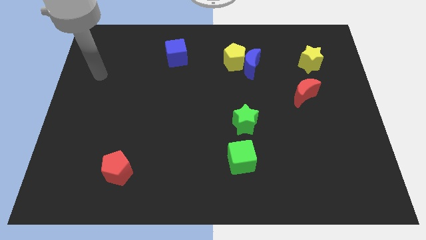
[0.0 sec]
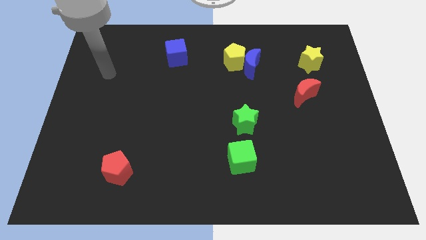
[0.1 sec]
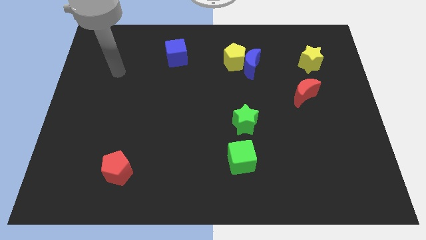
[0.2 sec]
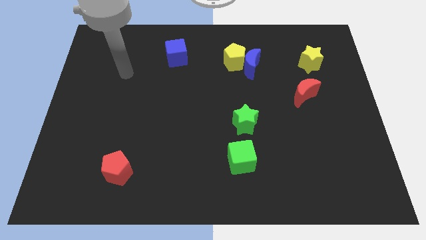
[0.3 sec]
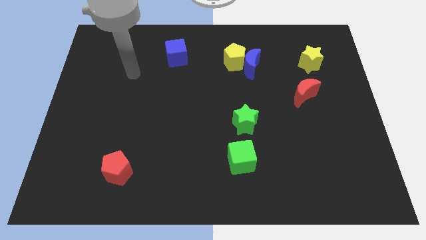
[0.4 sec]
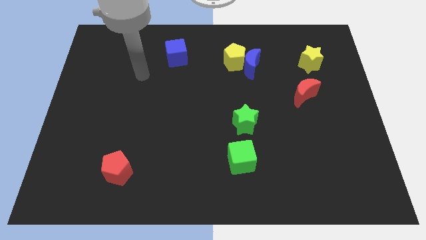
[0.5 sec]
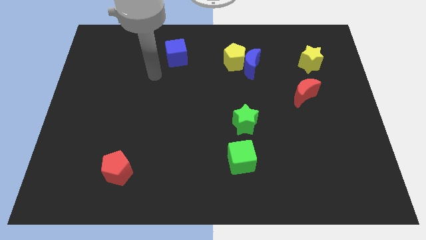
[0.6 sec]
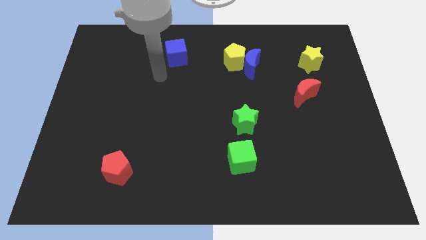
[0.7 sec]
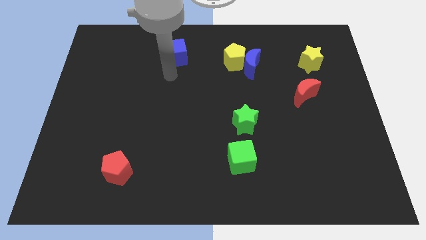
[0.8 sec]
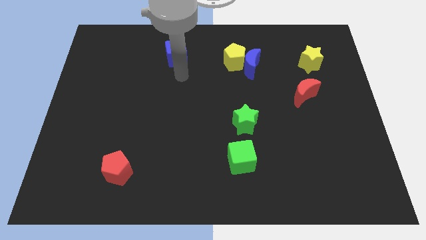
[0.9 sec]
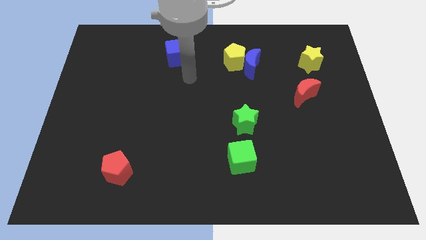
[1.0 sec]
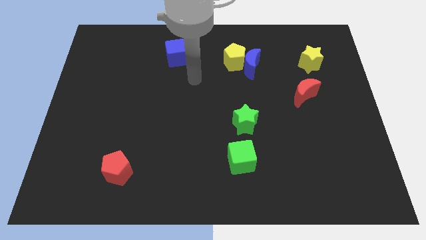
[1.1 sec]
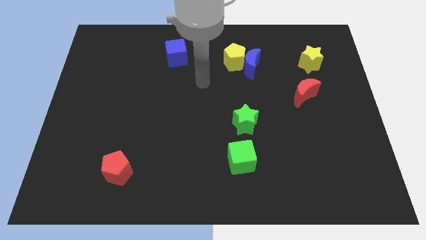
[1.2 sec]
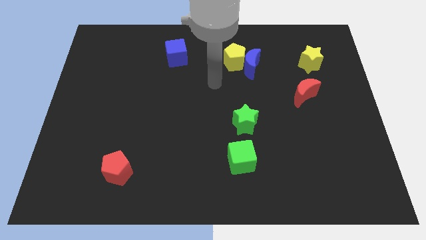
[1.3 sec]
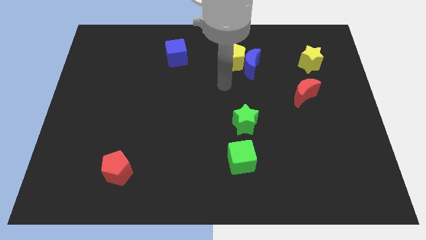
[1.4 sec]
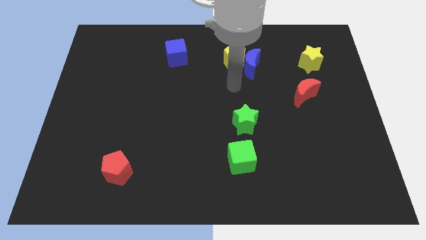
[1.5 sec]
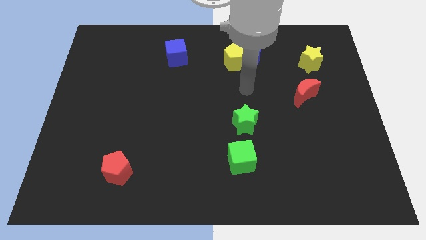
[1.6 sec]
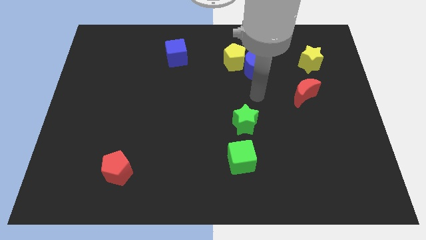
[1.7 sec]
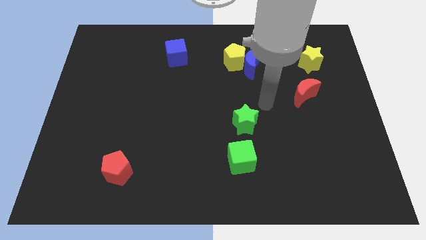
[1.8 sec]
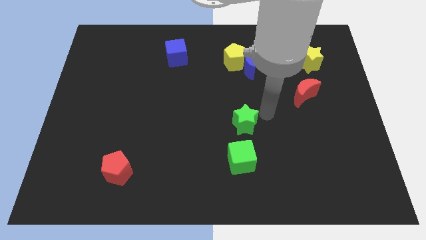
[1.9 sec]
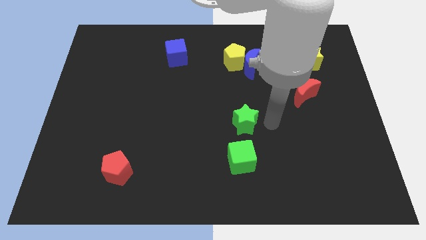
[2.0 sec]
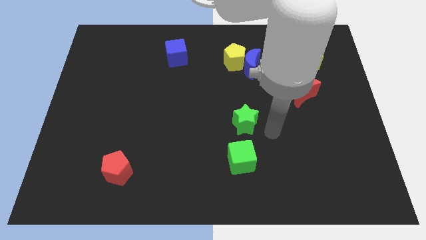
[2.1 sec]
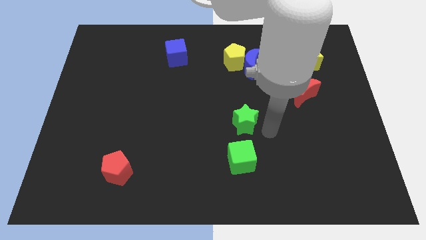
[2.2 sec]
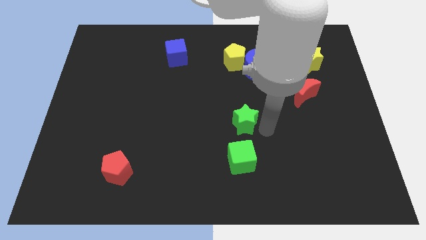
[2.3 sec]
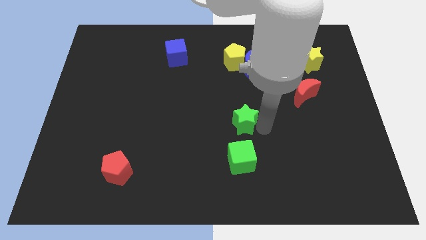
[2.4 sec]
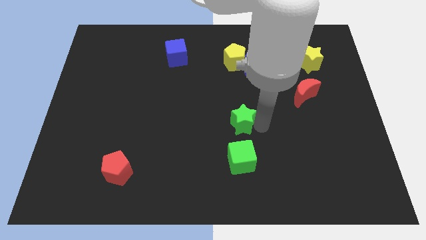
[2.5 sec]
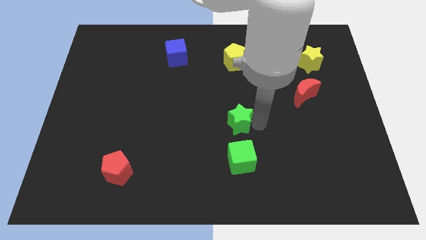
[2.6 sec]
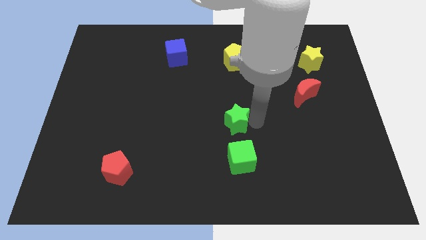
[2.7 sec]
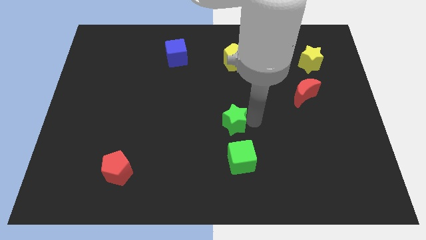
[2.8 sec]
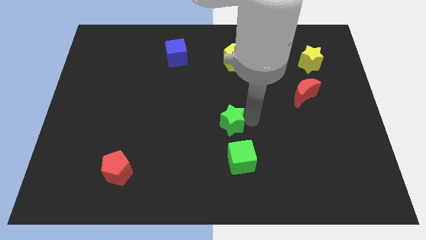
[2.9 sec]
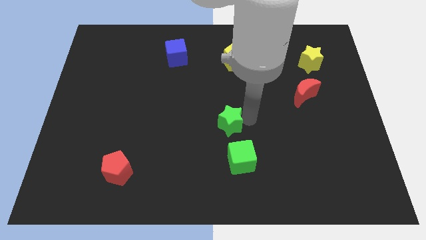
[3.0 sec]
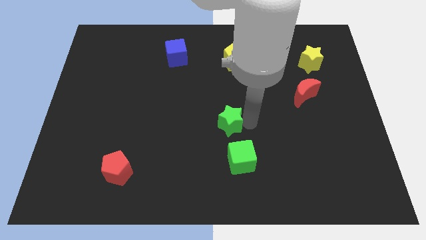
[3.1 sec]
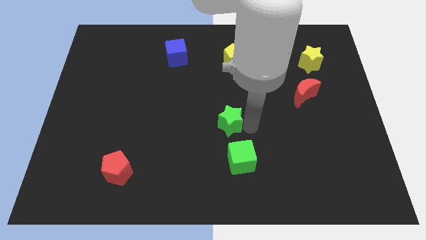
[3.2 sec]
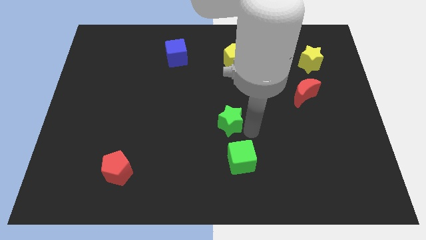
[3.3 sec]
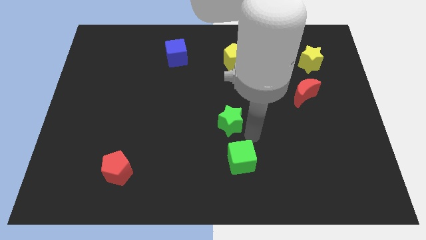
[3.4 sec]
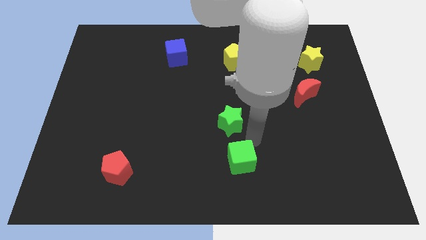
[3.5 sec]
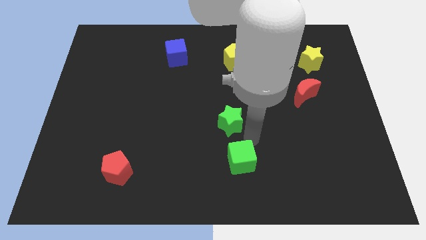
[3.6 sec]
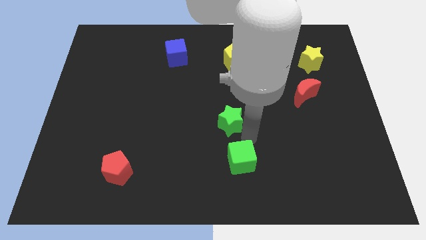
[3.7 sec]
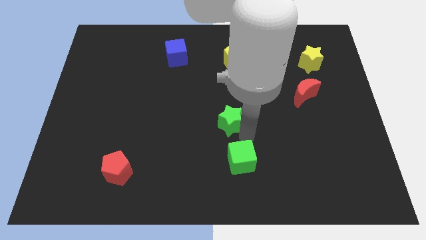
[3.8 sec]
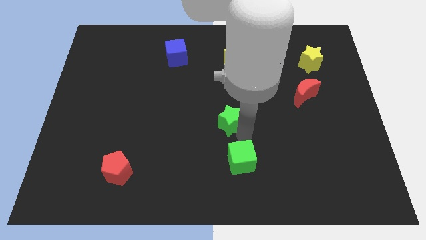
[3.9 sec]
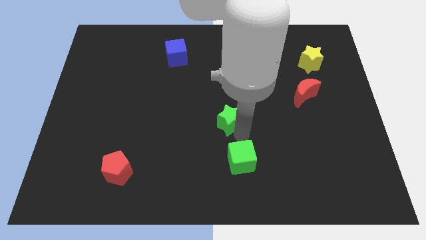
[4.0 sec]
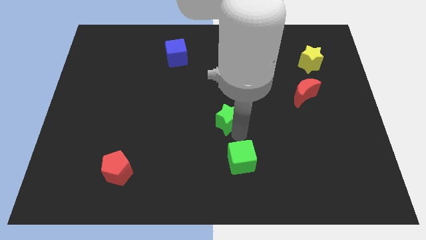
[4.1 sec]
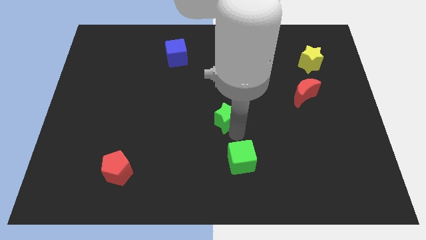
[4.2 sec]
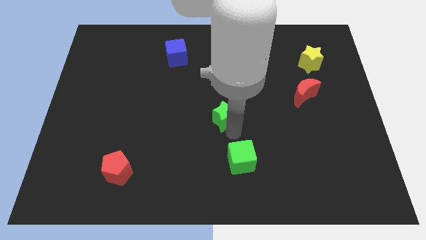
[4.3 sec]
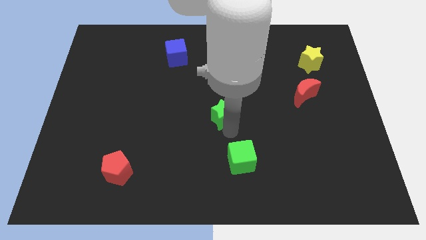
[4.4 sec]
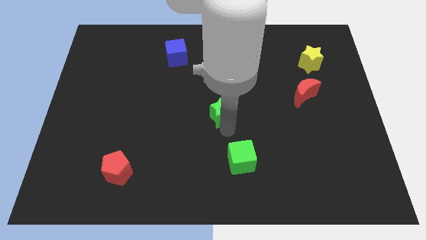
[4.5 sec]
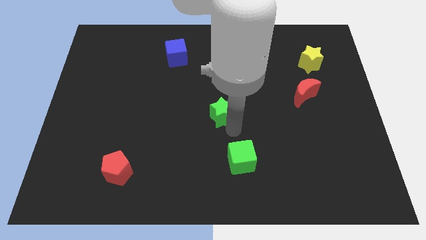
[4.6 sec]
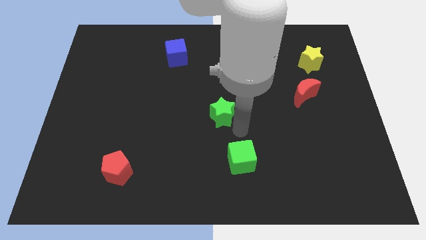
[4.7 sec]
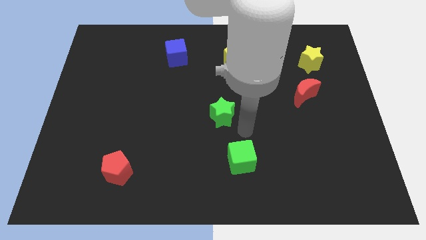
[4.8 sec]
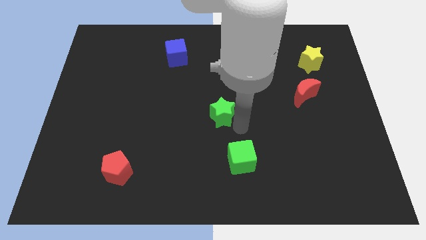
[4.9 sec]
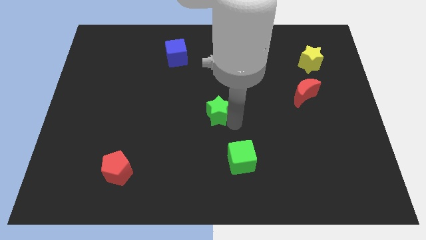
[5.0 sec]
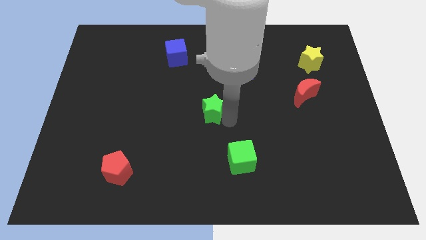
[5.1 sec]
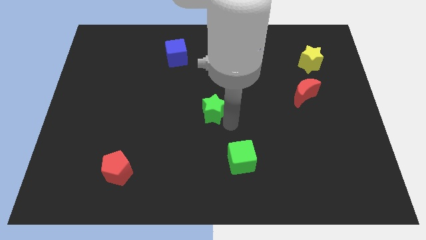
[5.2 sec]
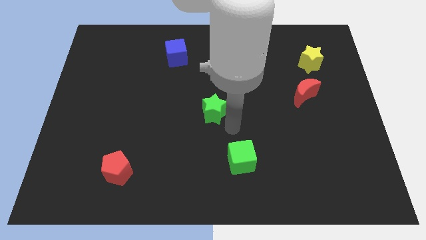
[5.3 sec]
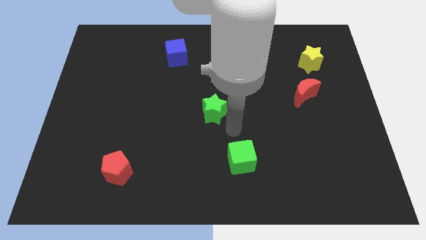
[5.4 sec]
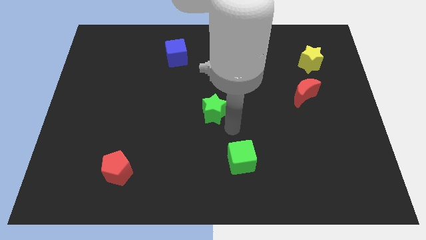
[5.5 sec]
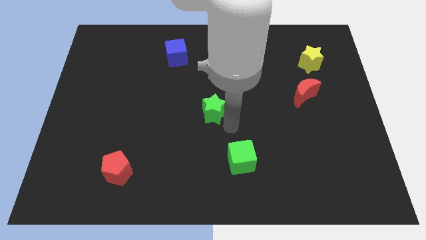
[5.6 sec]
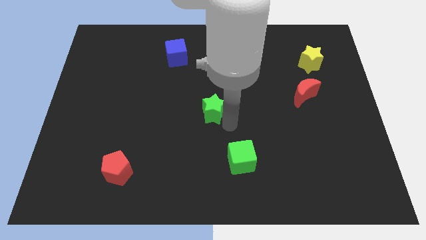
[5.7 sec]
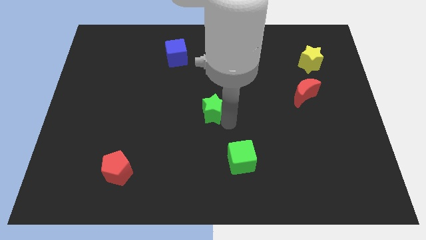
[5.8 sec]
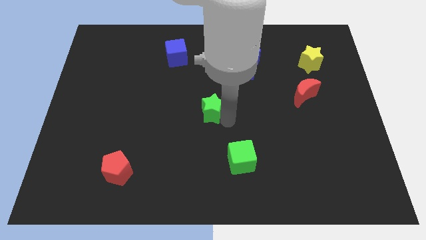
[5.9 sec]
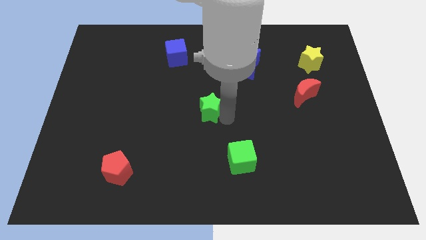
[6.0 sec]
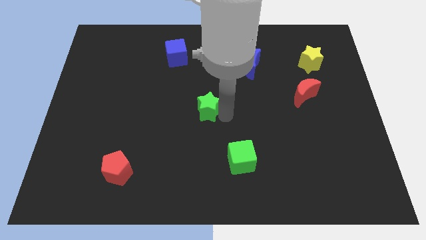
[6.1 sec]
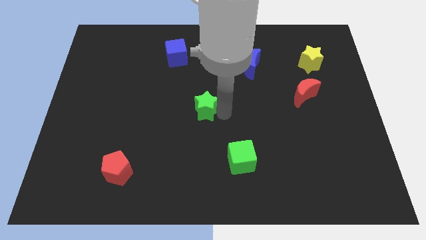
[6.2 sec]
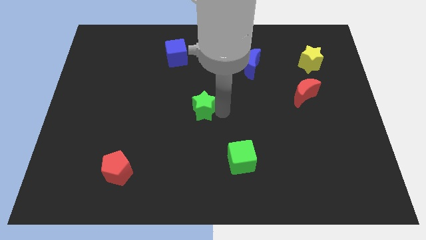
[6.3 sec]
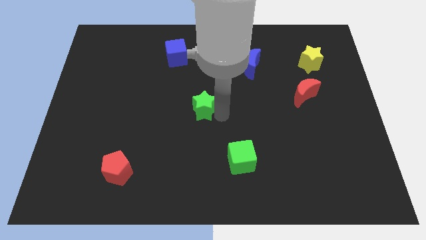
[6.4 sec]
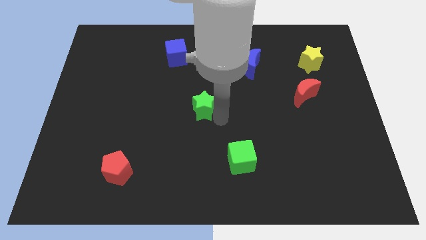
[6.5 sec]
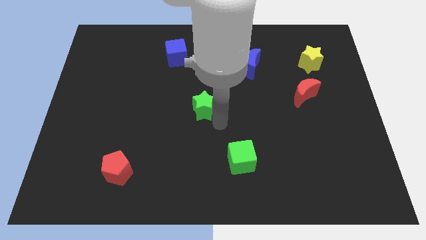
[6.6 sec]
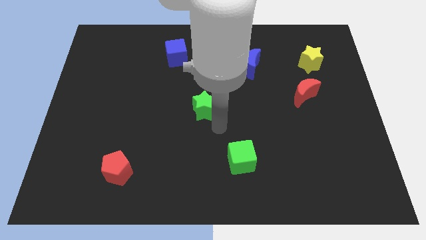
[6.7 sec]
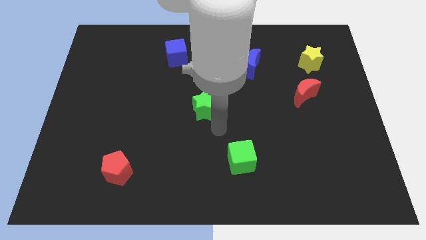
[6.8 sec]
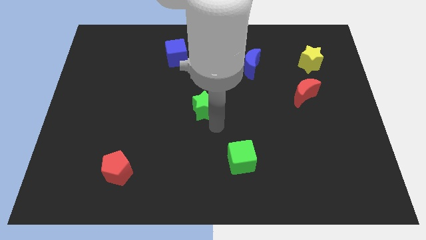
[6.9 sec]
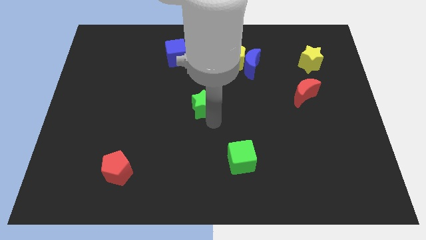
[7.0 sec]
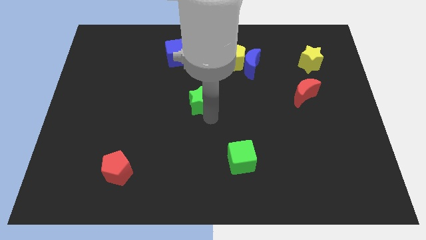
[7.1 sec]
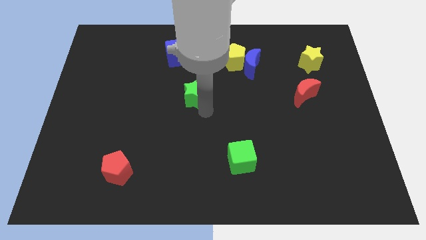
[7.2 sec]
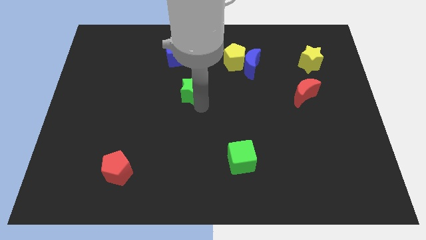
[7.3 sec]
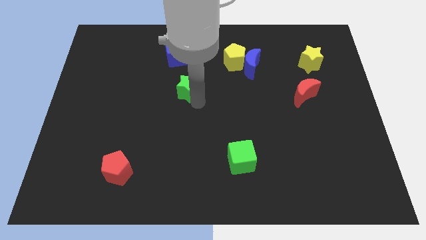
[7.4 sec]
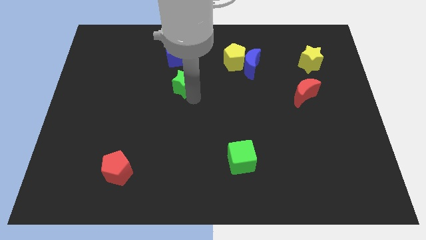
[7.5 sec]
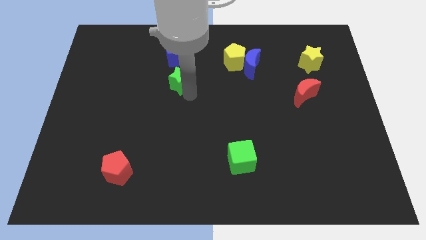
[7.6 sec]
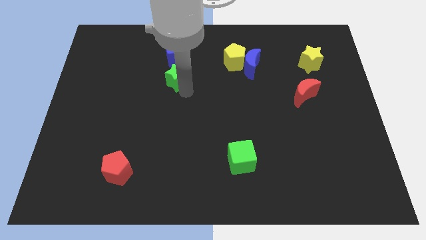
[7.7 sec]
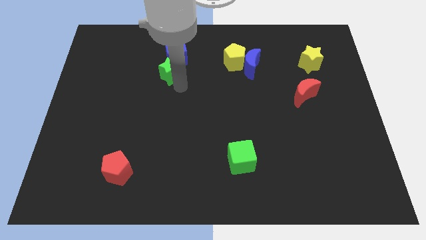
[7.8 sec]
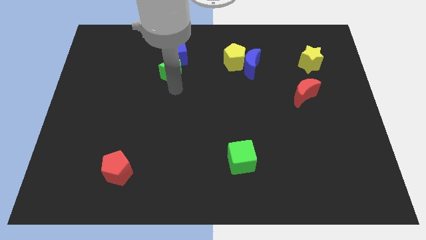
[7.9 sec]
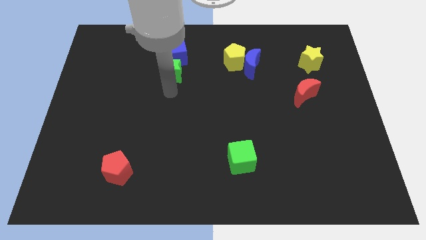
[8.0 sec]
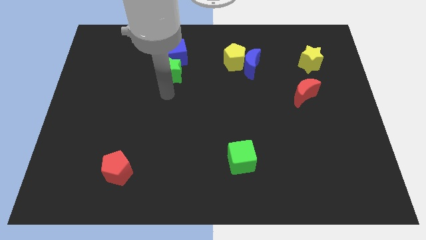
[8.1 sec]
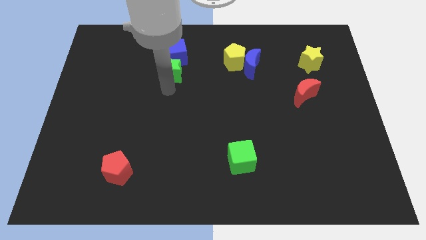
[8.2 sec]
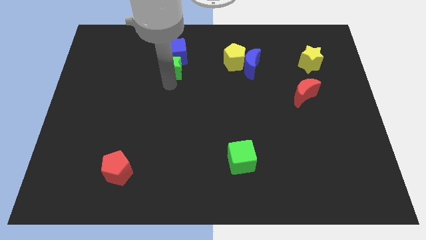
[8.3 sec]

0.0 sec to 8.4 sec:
slide the green star towards the blue cube
